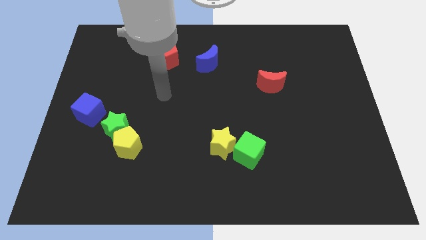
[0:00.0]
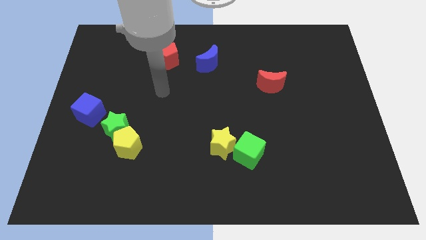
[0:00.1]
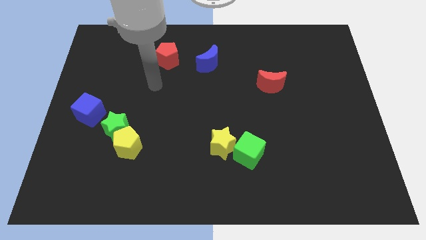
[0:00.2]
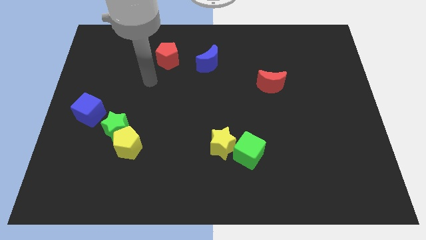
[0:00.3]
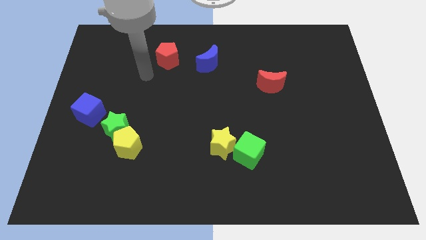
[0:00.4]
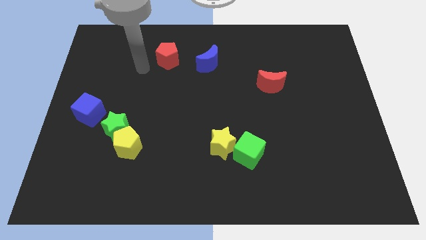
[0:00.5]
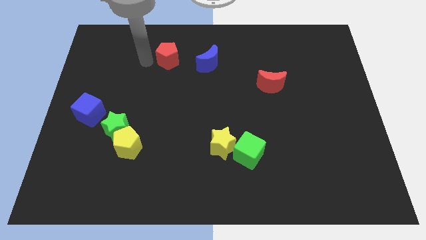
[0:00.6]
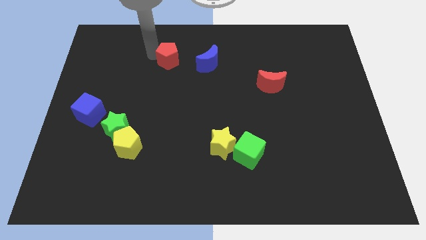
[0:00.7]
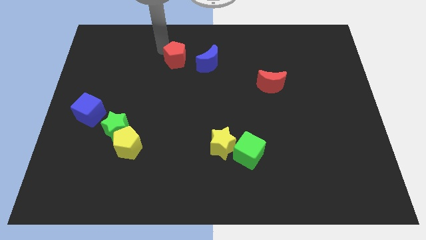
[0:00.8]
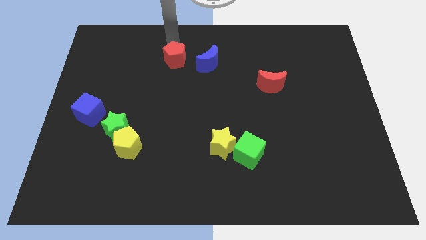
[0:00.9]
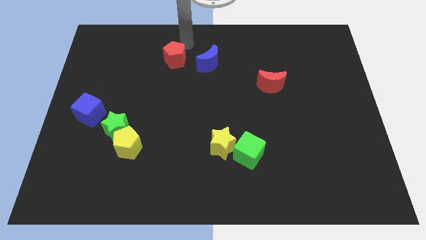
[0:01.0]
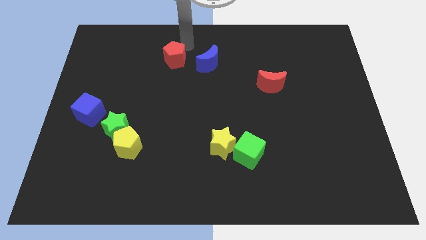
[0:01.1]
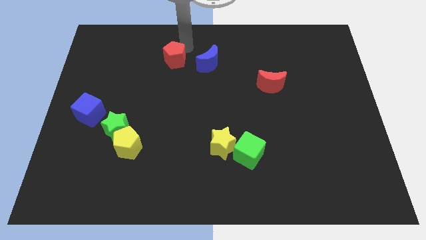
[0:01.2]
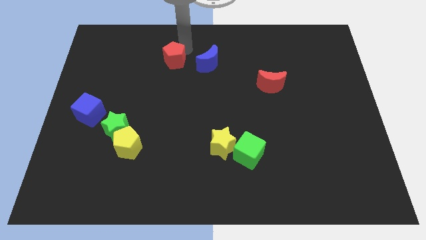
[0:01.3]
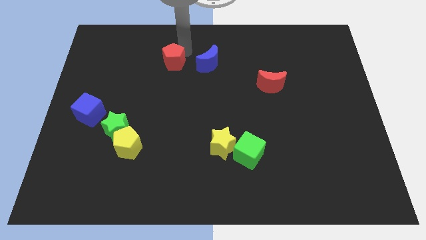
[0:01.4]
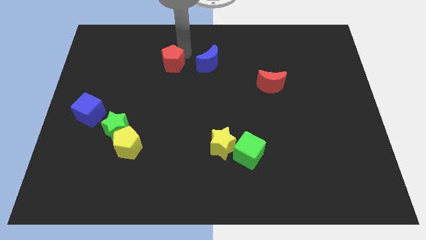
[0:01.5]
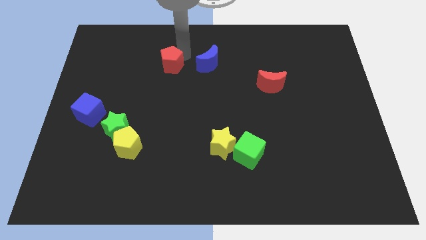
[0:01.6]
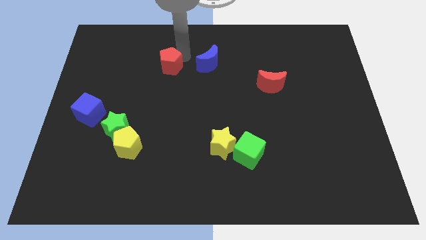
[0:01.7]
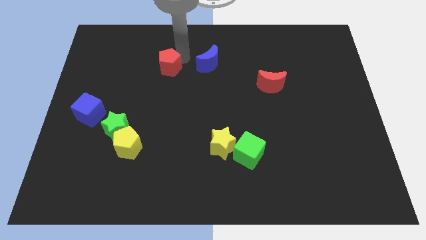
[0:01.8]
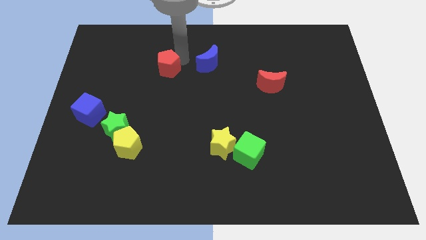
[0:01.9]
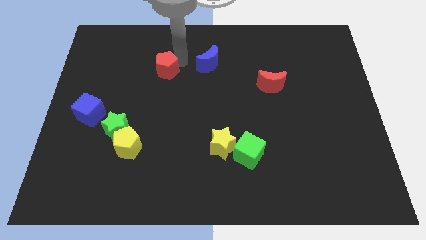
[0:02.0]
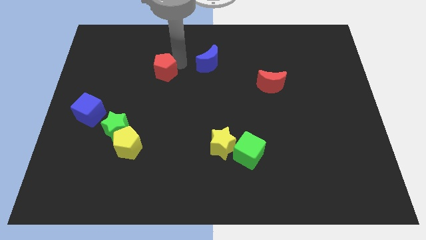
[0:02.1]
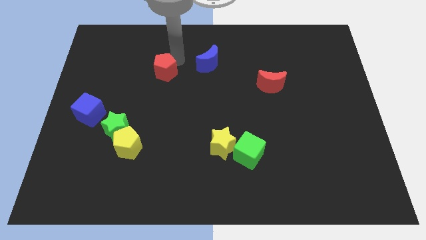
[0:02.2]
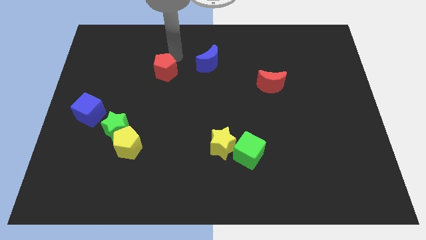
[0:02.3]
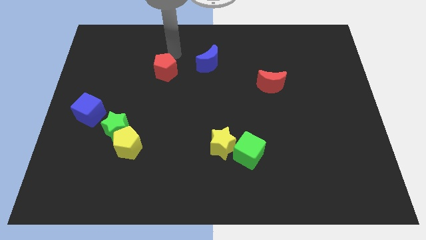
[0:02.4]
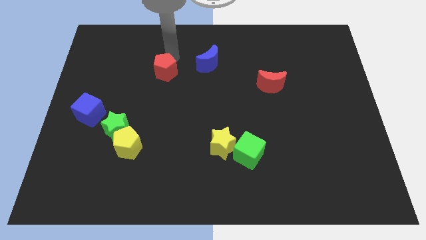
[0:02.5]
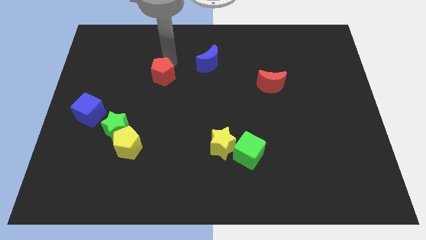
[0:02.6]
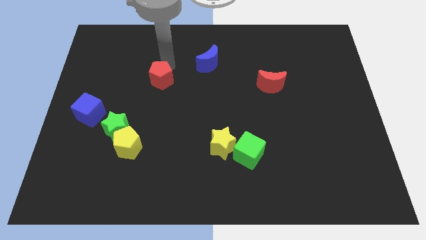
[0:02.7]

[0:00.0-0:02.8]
slightly push the red pentagon downwards

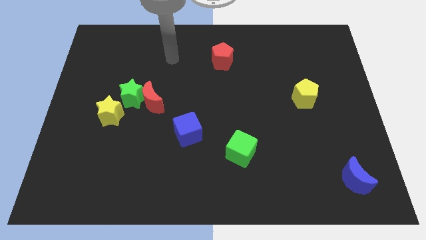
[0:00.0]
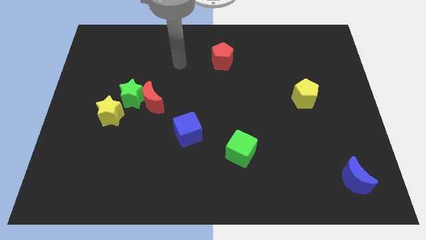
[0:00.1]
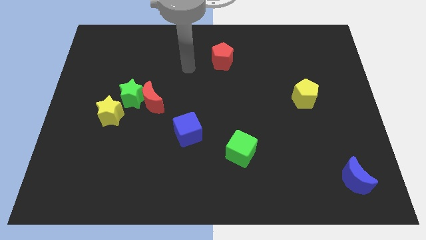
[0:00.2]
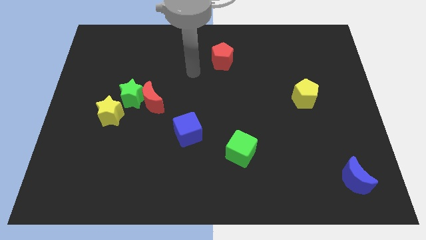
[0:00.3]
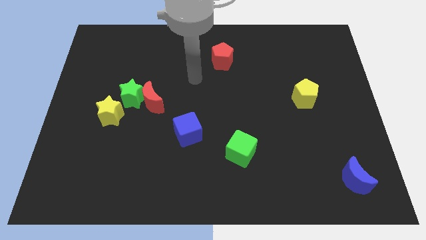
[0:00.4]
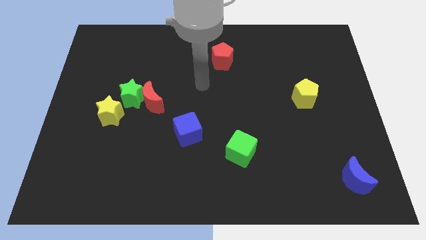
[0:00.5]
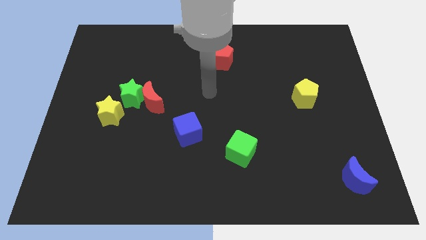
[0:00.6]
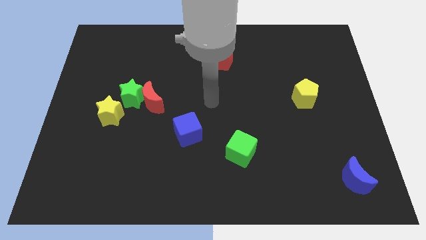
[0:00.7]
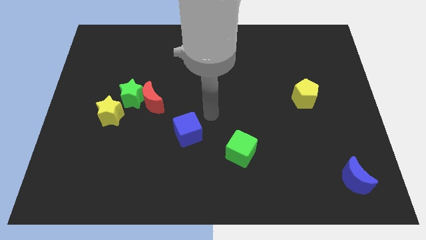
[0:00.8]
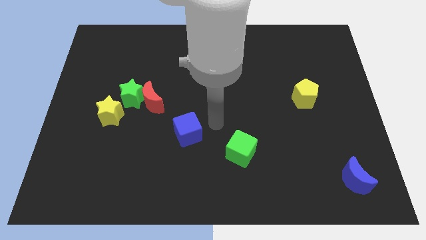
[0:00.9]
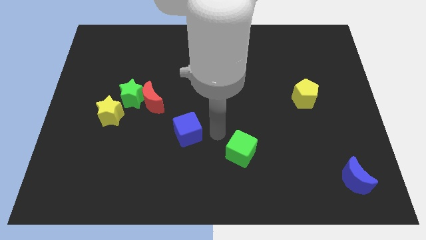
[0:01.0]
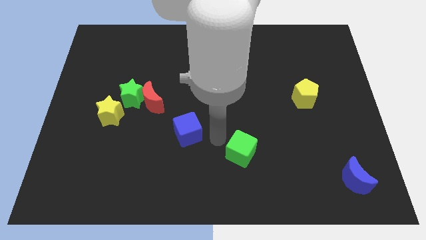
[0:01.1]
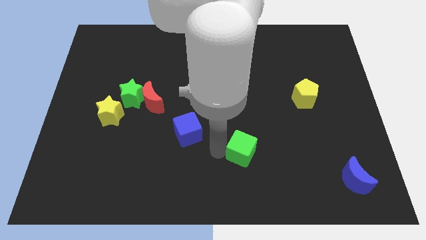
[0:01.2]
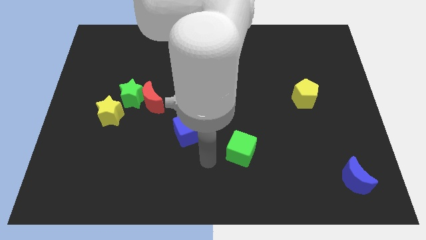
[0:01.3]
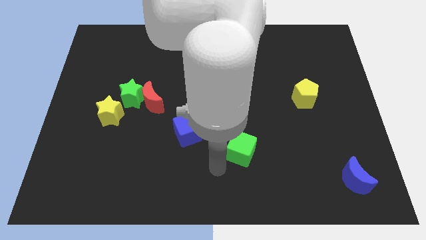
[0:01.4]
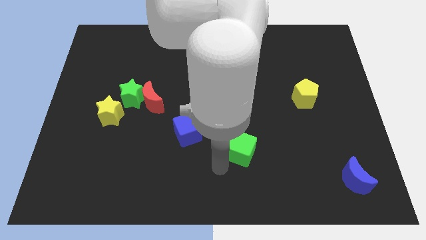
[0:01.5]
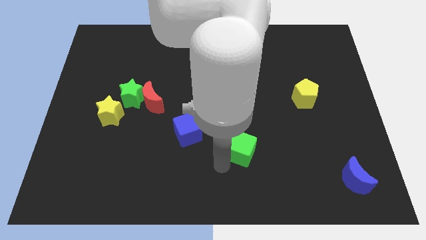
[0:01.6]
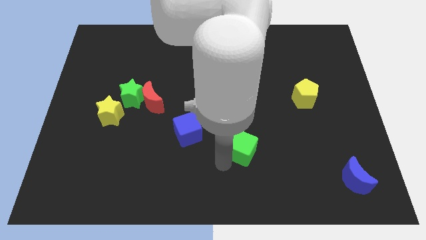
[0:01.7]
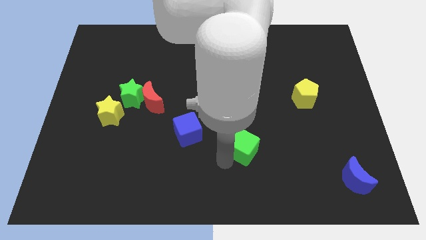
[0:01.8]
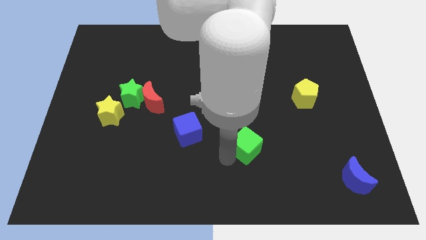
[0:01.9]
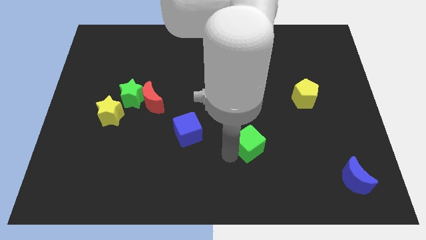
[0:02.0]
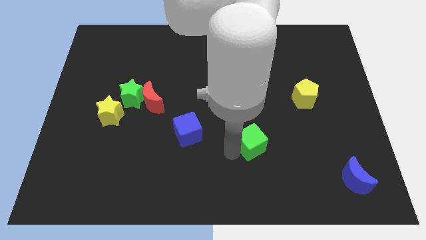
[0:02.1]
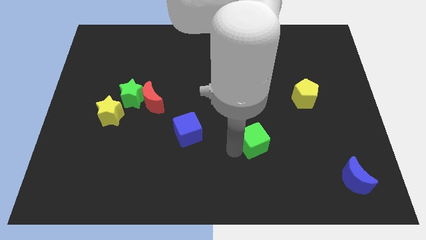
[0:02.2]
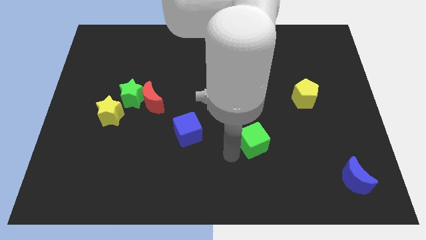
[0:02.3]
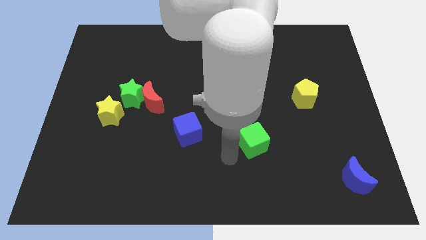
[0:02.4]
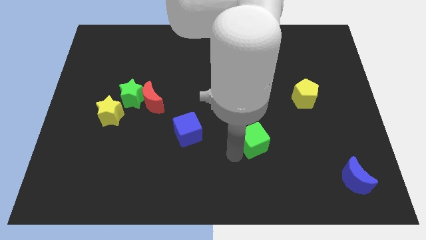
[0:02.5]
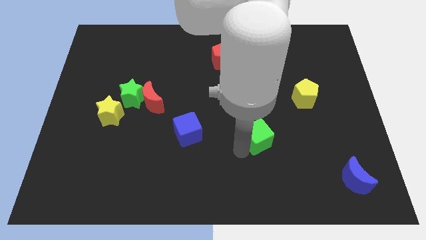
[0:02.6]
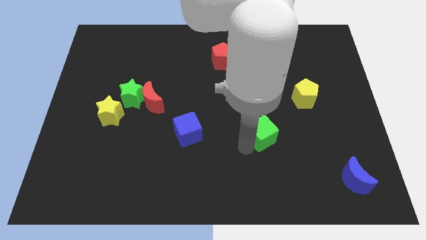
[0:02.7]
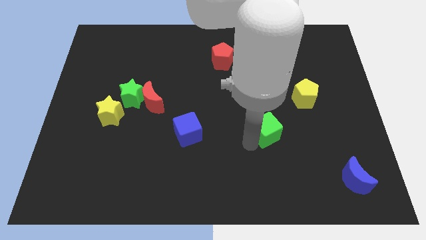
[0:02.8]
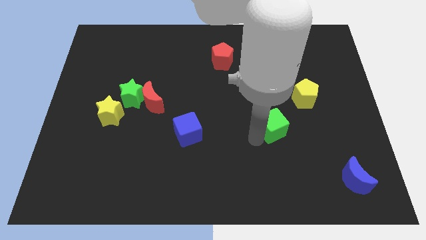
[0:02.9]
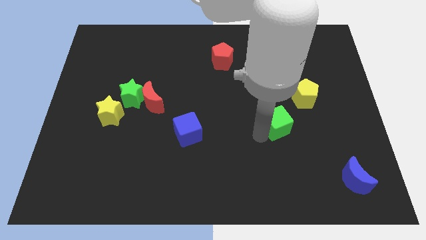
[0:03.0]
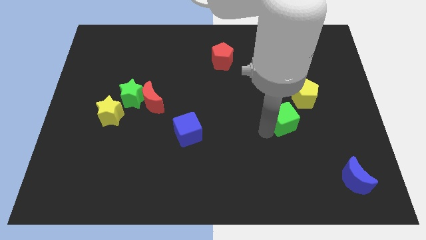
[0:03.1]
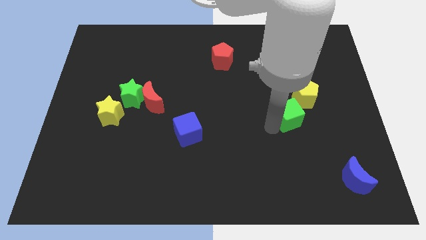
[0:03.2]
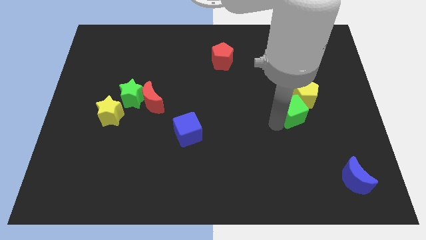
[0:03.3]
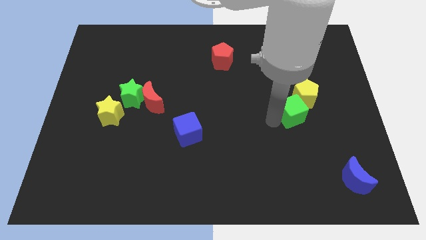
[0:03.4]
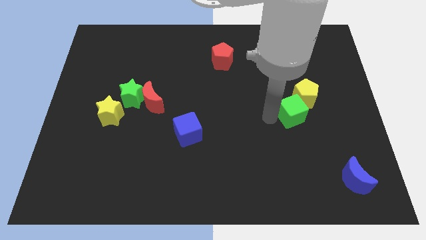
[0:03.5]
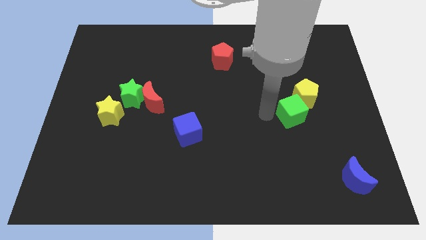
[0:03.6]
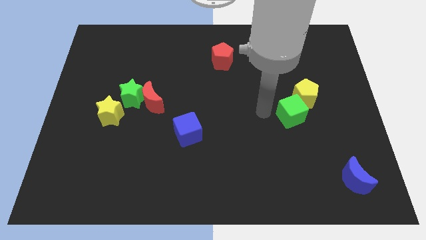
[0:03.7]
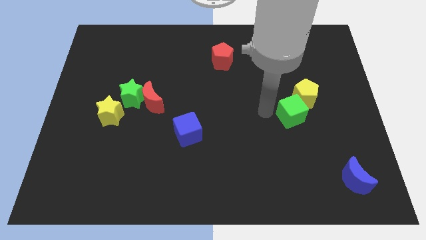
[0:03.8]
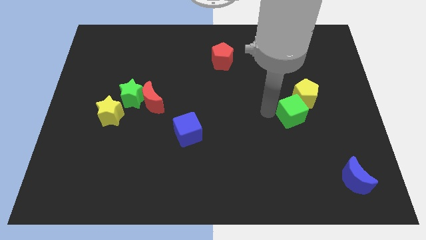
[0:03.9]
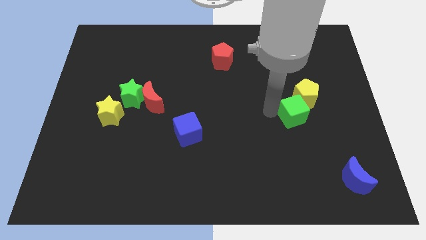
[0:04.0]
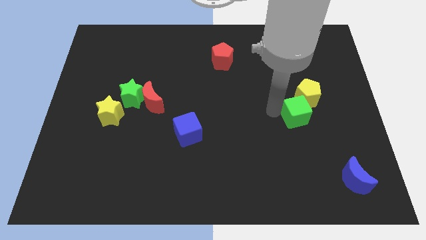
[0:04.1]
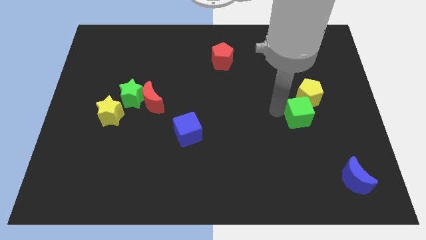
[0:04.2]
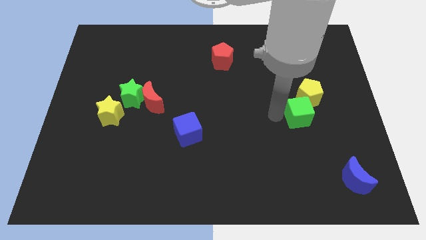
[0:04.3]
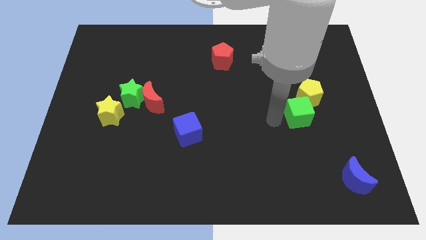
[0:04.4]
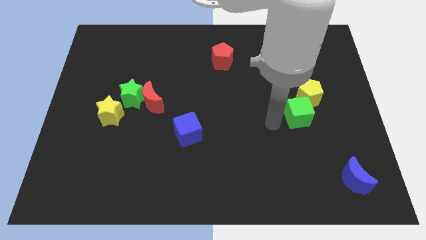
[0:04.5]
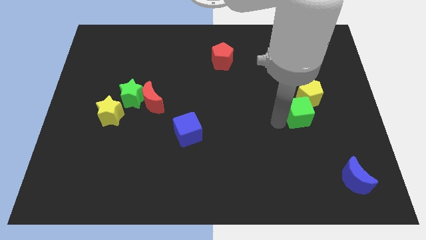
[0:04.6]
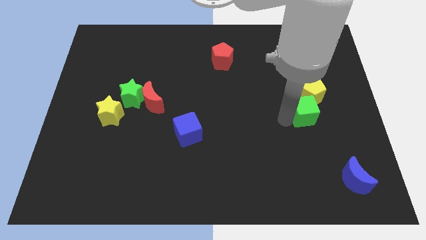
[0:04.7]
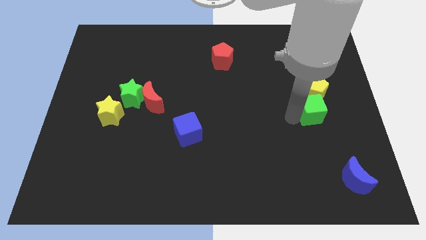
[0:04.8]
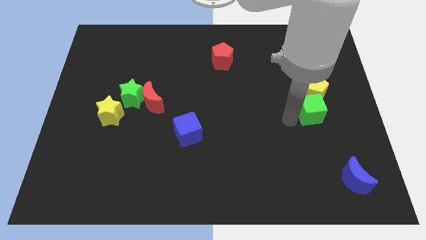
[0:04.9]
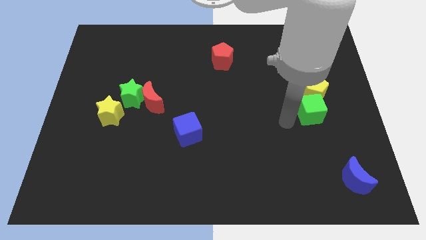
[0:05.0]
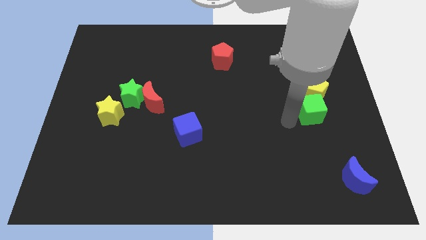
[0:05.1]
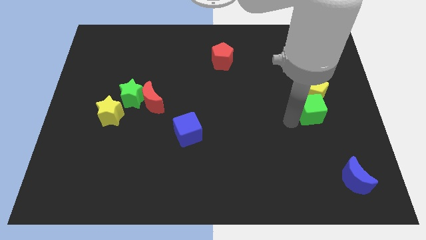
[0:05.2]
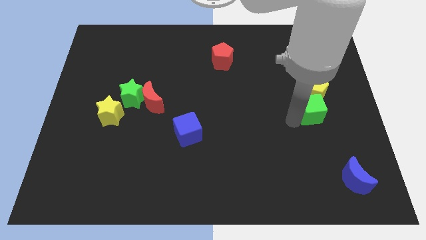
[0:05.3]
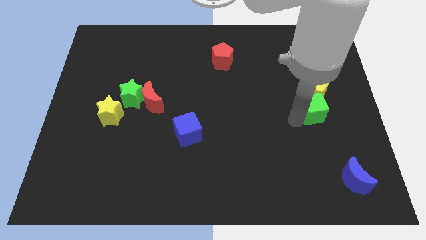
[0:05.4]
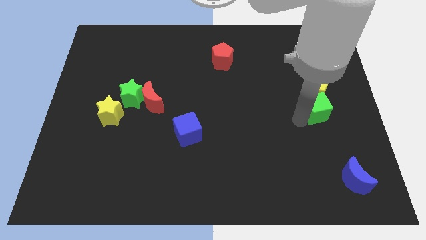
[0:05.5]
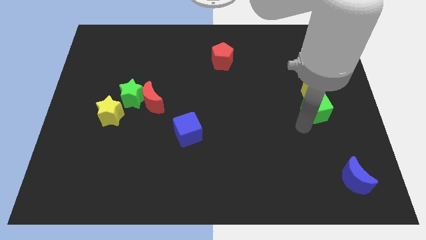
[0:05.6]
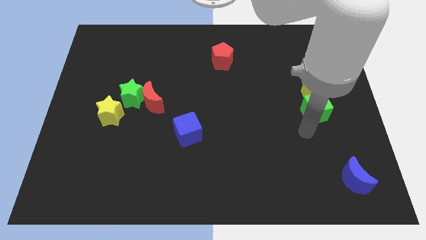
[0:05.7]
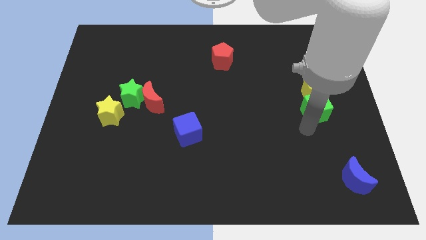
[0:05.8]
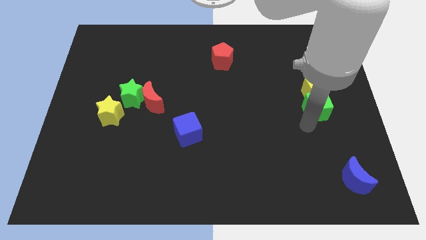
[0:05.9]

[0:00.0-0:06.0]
move the green cube up and to the right
